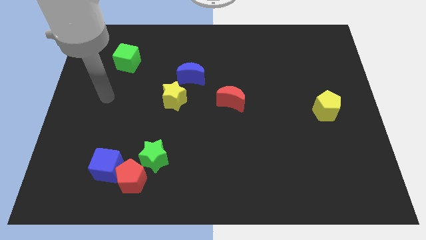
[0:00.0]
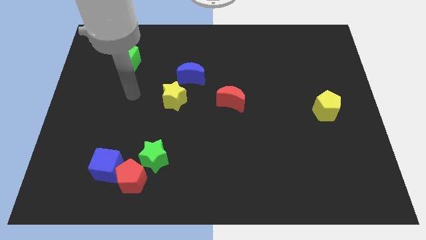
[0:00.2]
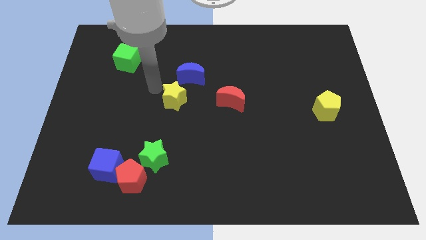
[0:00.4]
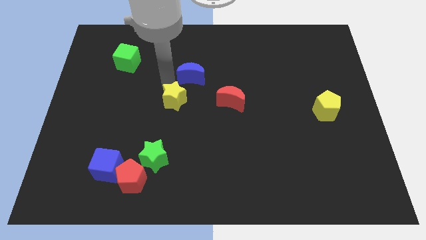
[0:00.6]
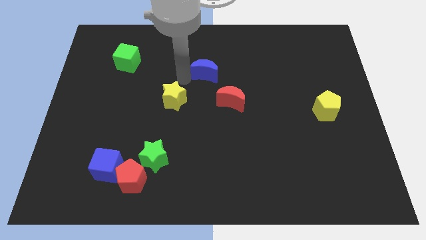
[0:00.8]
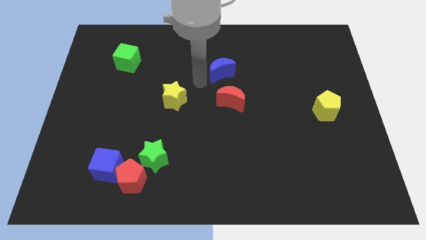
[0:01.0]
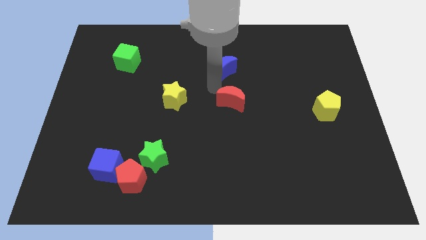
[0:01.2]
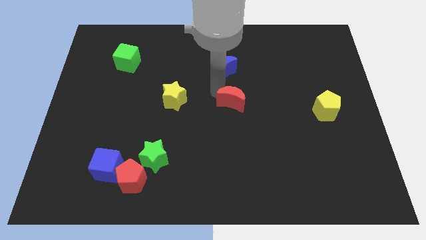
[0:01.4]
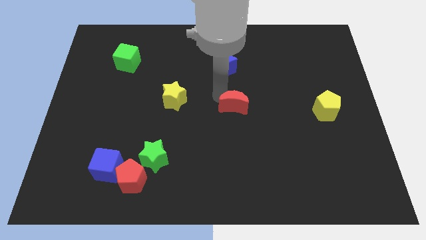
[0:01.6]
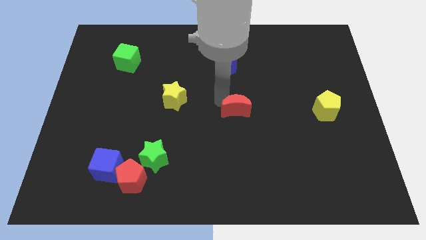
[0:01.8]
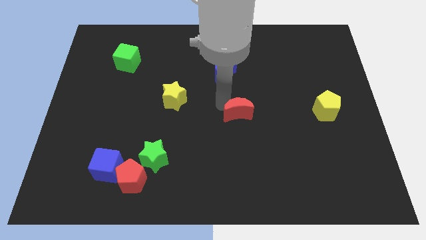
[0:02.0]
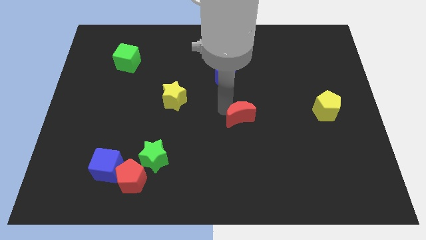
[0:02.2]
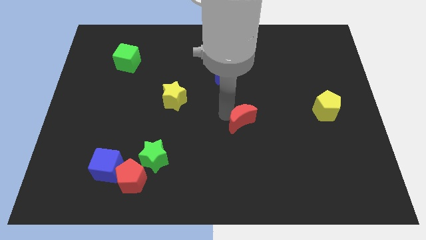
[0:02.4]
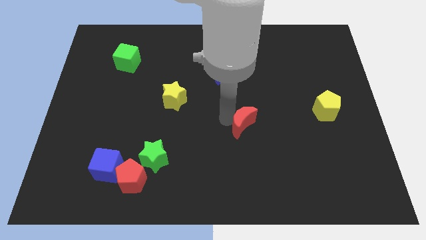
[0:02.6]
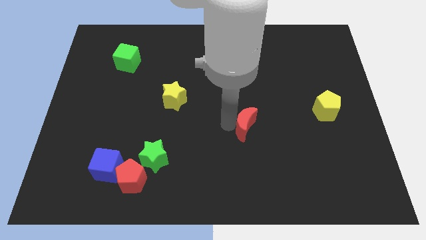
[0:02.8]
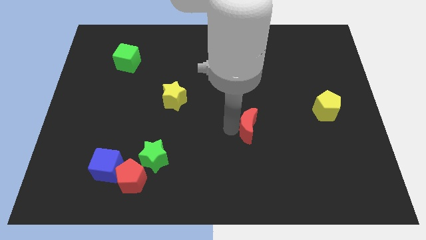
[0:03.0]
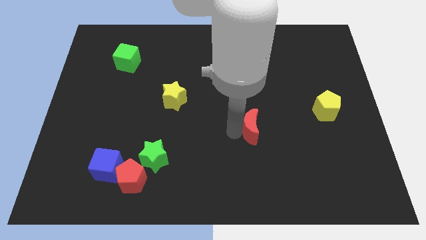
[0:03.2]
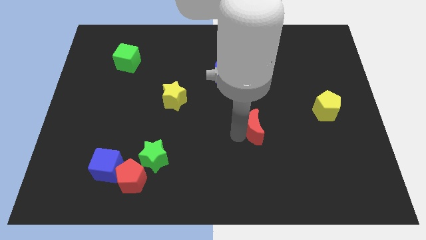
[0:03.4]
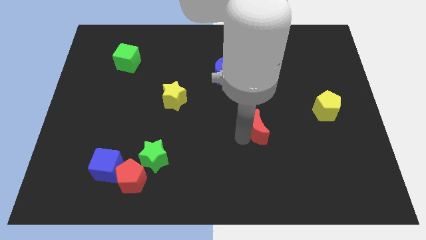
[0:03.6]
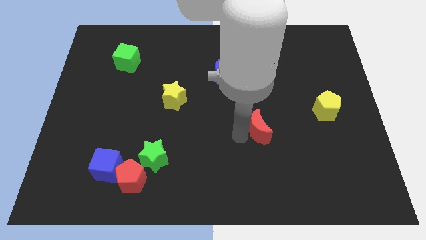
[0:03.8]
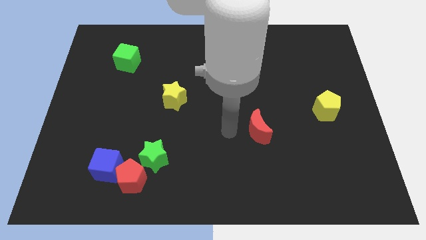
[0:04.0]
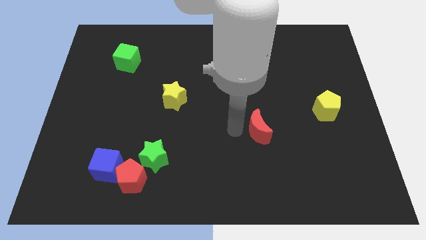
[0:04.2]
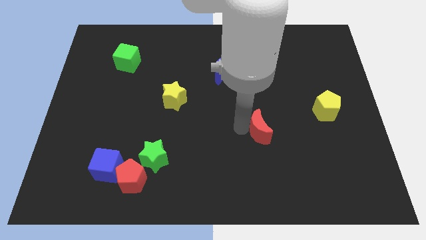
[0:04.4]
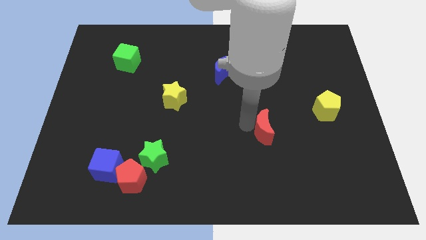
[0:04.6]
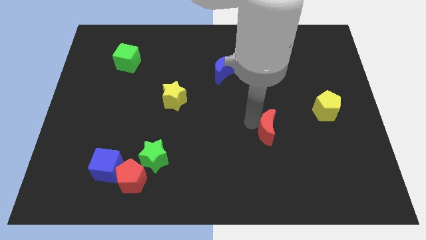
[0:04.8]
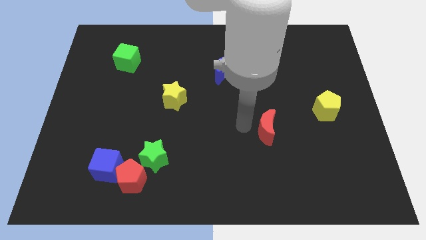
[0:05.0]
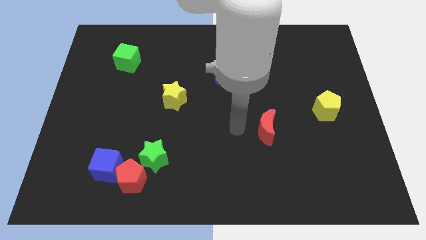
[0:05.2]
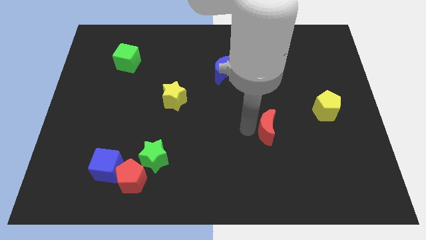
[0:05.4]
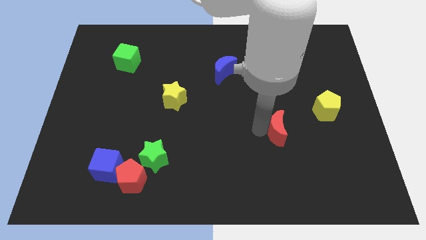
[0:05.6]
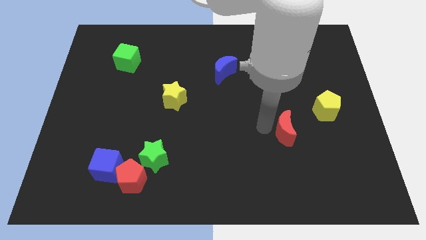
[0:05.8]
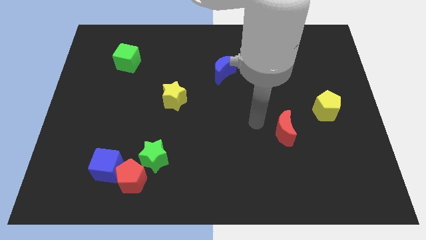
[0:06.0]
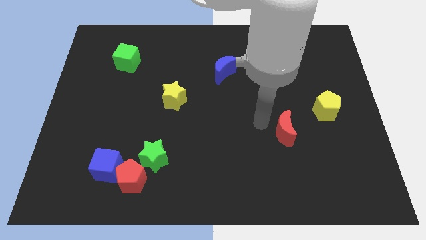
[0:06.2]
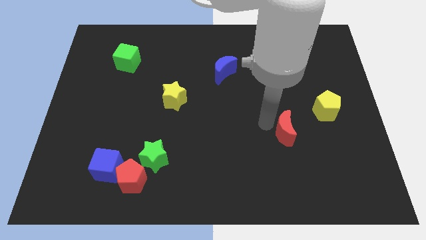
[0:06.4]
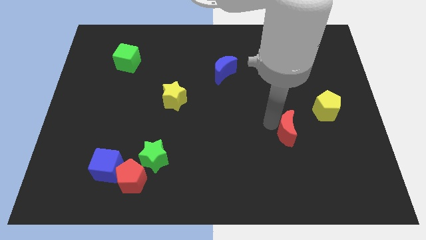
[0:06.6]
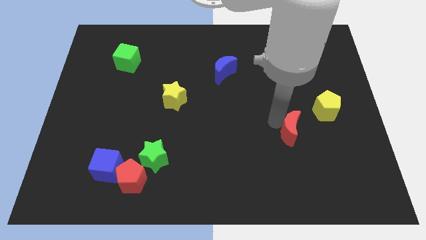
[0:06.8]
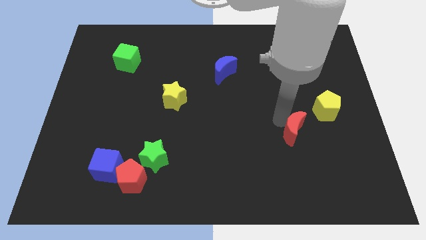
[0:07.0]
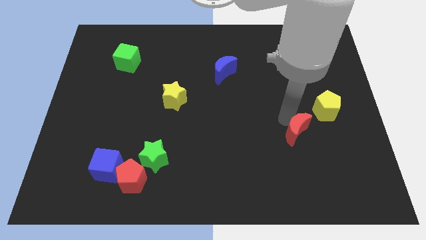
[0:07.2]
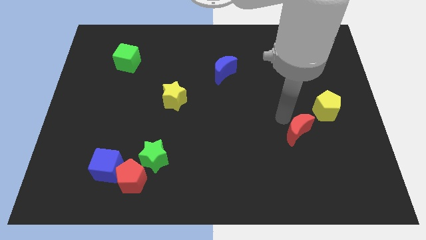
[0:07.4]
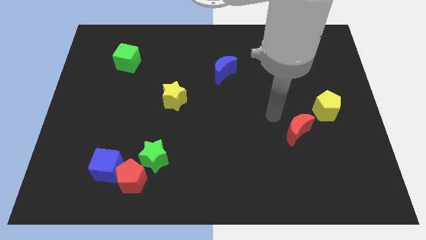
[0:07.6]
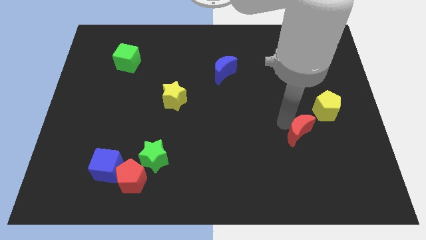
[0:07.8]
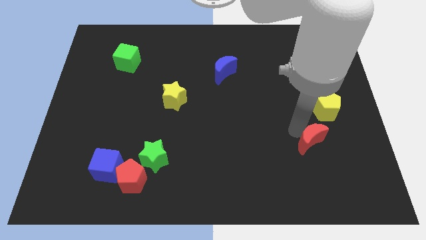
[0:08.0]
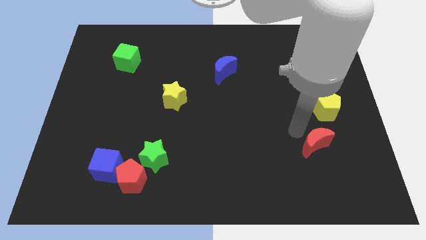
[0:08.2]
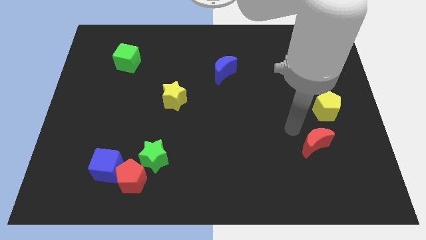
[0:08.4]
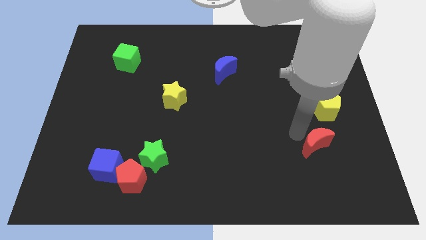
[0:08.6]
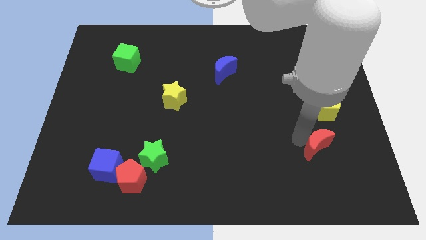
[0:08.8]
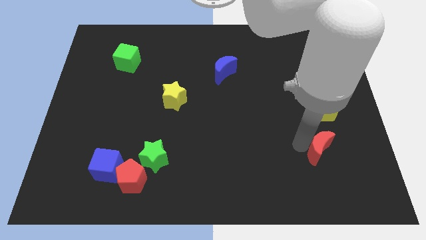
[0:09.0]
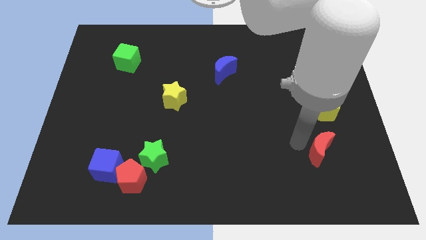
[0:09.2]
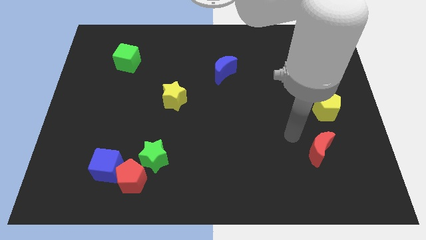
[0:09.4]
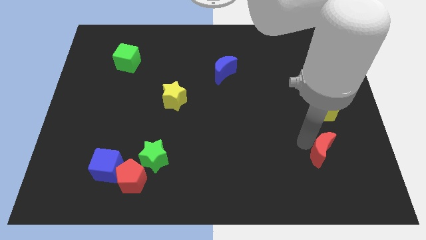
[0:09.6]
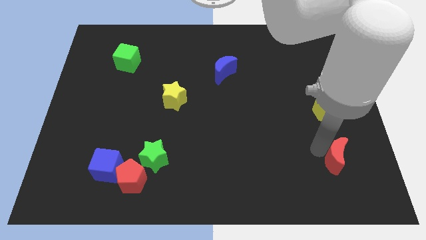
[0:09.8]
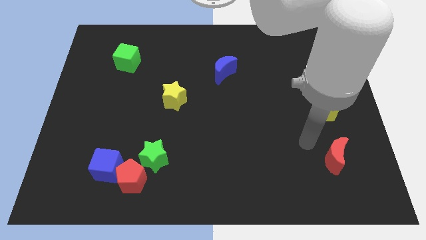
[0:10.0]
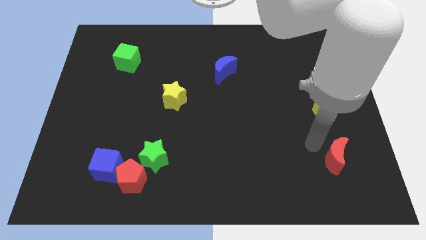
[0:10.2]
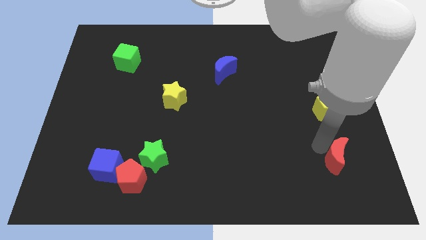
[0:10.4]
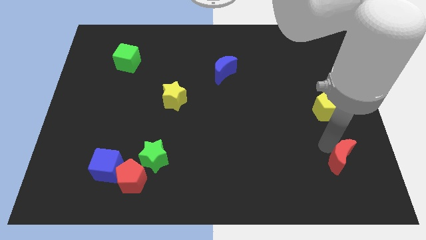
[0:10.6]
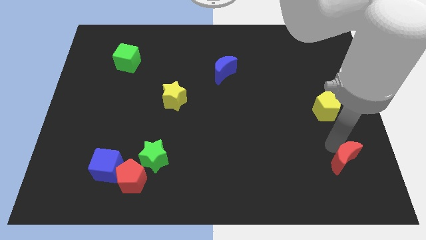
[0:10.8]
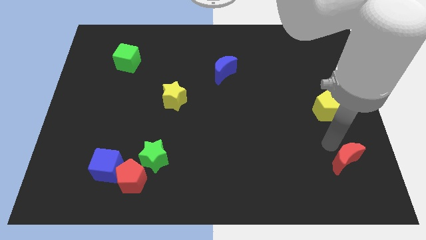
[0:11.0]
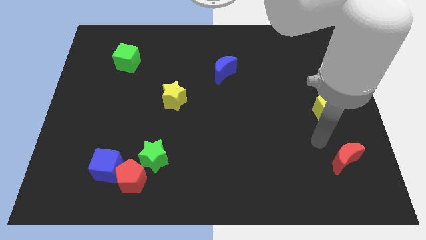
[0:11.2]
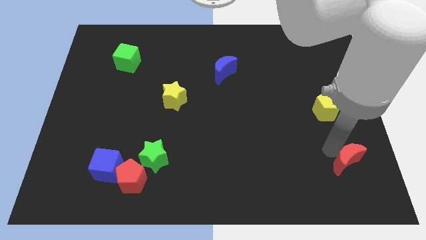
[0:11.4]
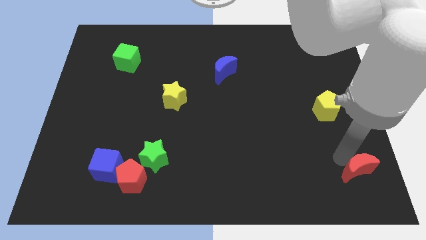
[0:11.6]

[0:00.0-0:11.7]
move the red moon to the bottom right corner
